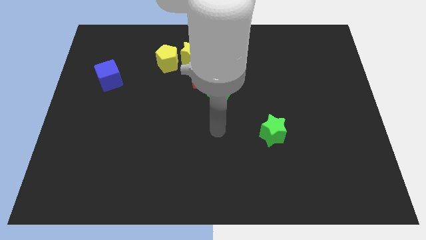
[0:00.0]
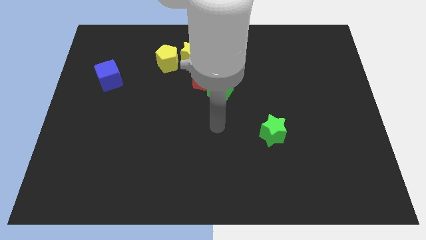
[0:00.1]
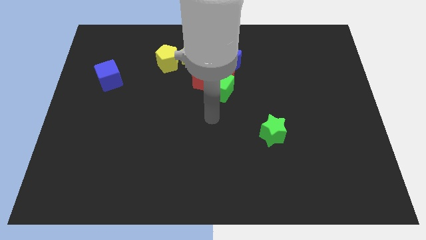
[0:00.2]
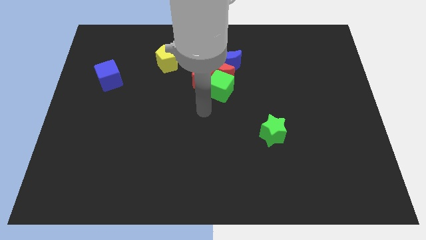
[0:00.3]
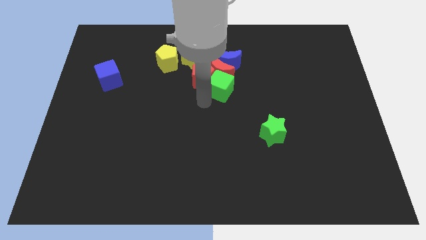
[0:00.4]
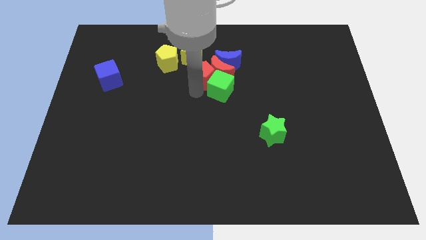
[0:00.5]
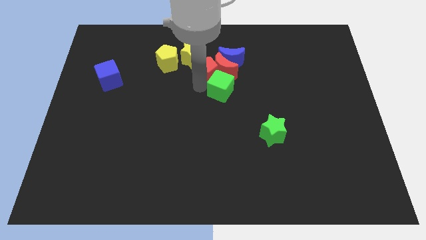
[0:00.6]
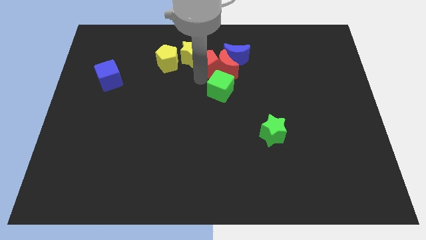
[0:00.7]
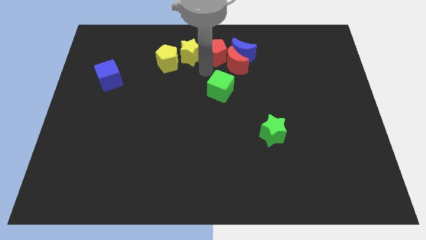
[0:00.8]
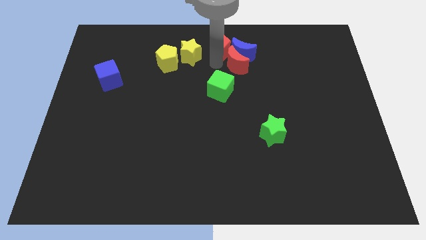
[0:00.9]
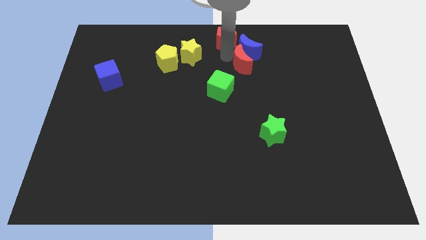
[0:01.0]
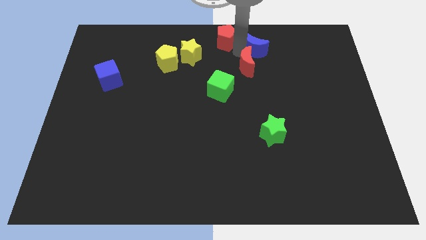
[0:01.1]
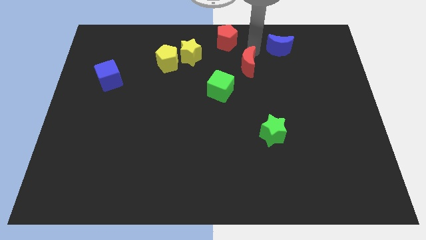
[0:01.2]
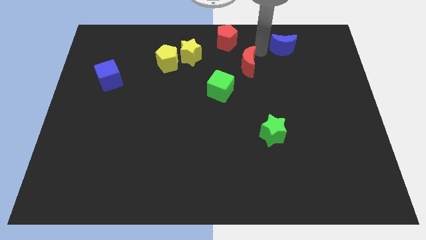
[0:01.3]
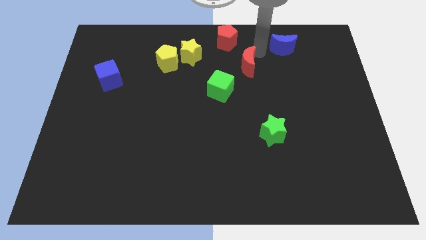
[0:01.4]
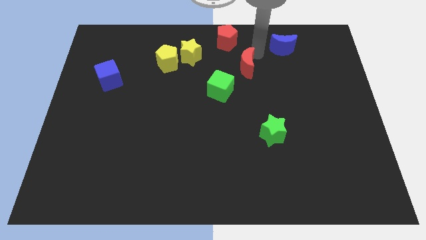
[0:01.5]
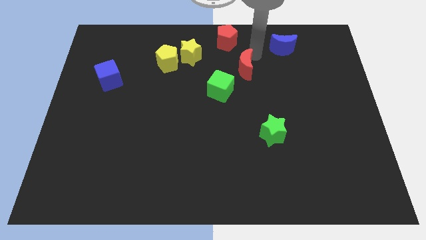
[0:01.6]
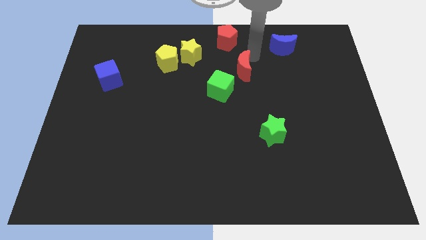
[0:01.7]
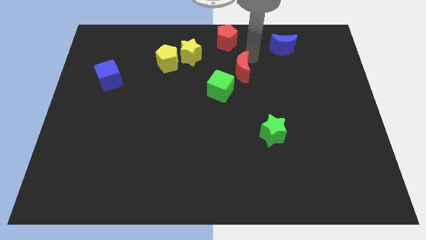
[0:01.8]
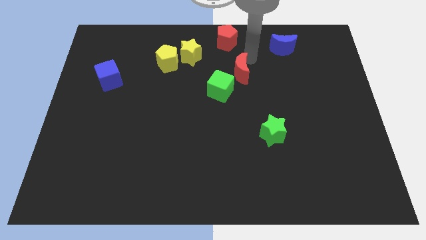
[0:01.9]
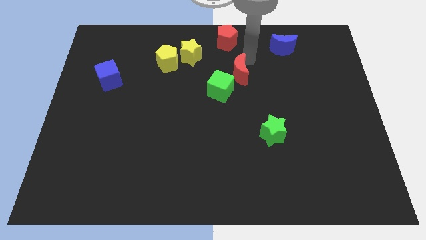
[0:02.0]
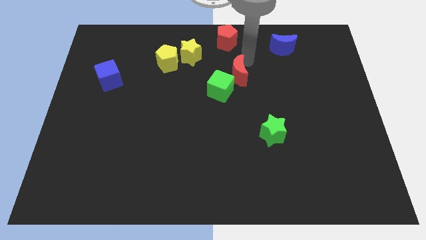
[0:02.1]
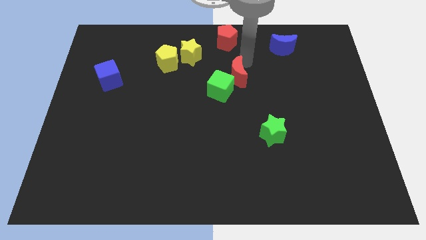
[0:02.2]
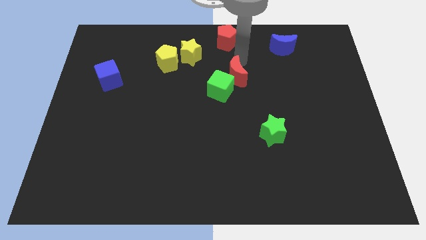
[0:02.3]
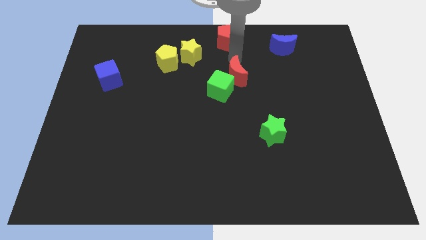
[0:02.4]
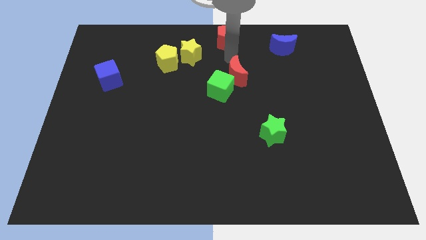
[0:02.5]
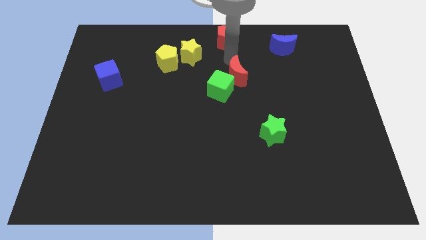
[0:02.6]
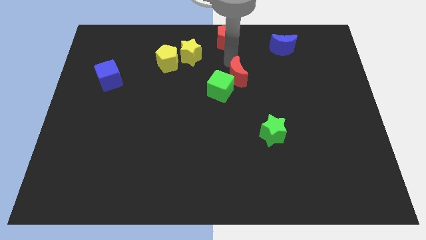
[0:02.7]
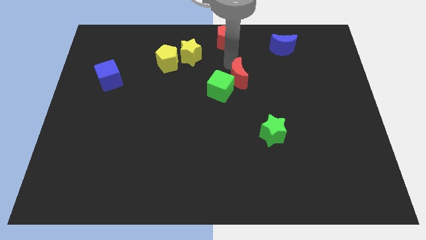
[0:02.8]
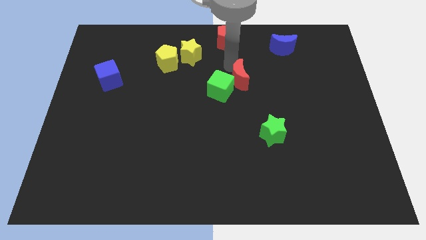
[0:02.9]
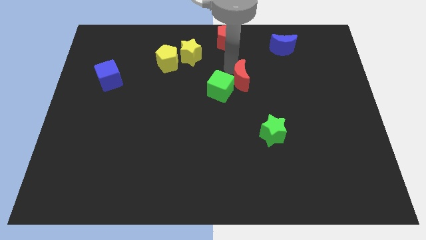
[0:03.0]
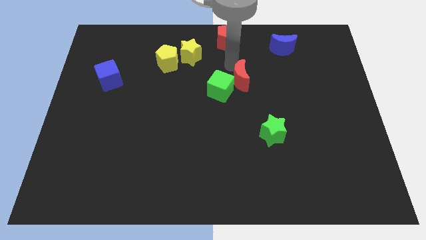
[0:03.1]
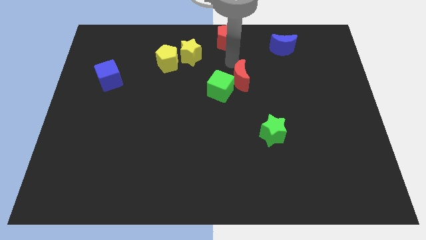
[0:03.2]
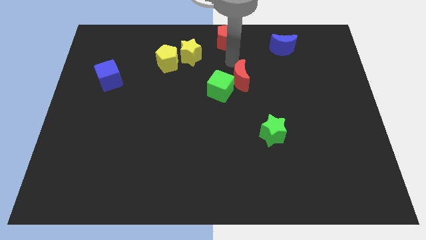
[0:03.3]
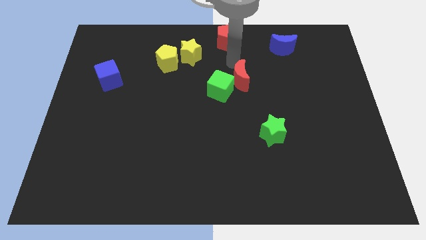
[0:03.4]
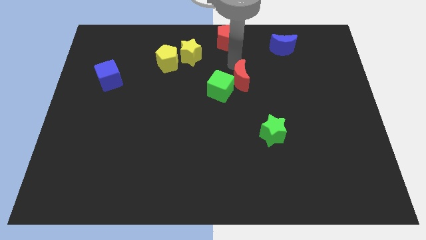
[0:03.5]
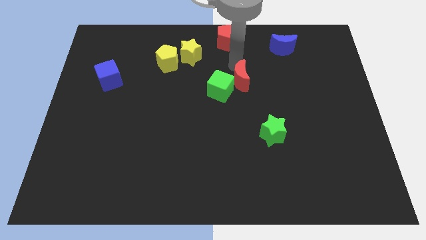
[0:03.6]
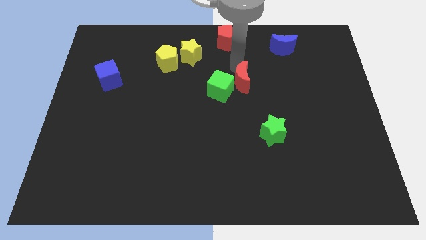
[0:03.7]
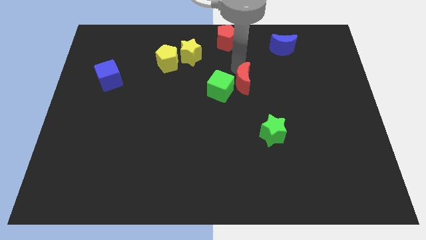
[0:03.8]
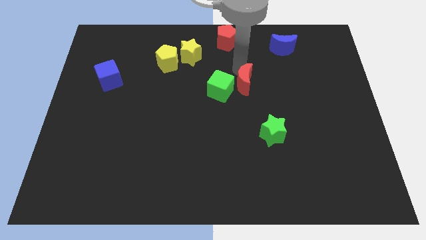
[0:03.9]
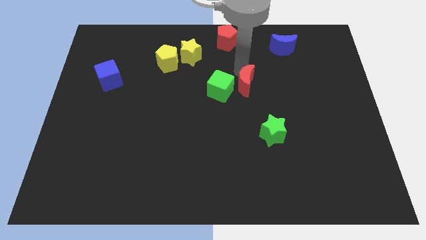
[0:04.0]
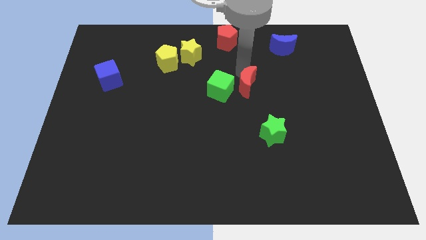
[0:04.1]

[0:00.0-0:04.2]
move the red moon away from the group

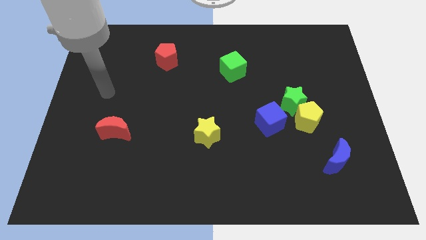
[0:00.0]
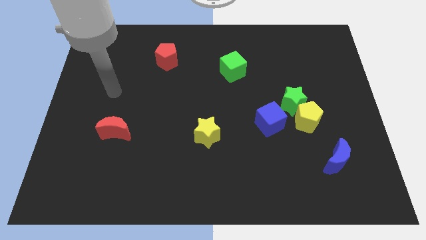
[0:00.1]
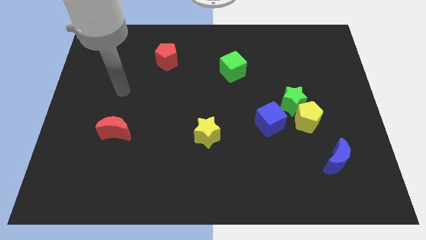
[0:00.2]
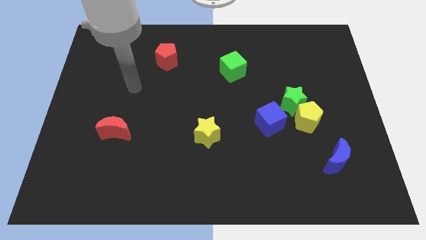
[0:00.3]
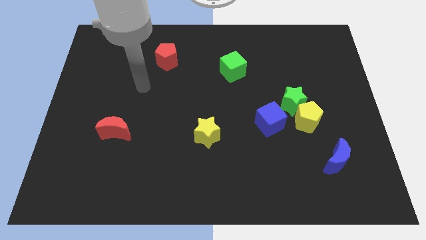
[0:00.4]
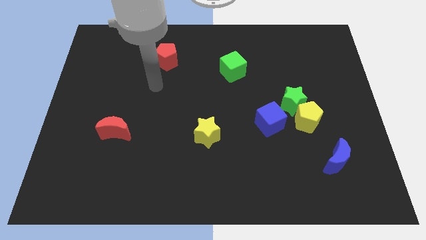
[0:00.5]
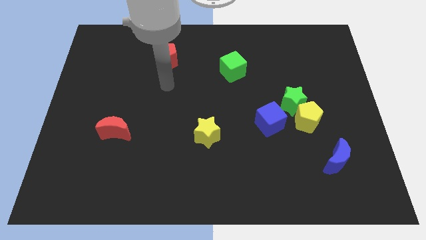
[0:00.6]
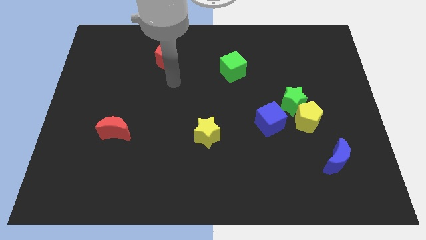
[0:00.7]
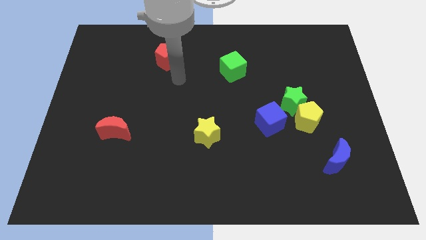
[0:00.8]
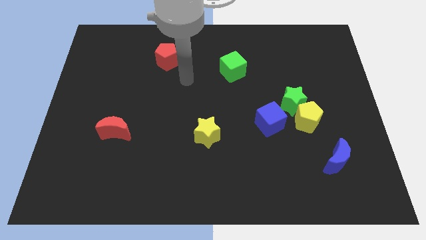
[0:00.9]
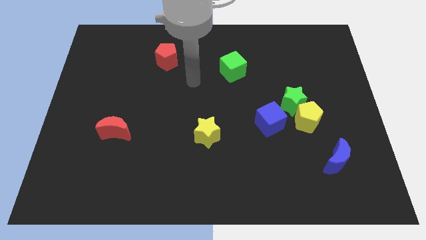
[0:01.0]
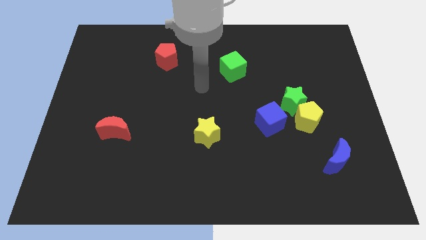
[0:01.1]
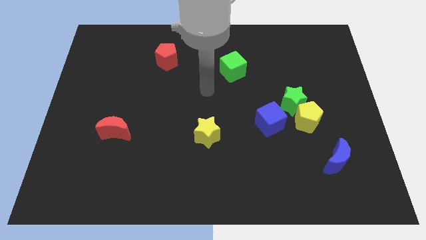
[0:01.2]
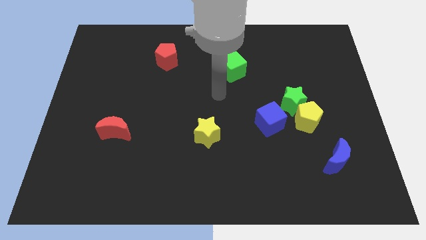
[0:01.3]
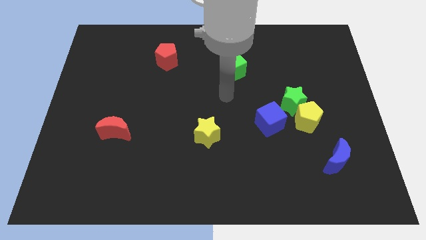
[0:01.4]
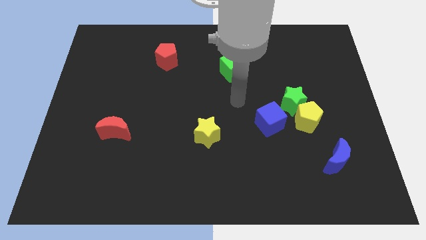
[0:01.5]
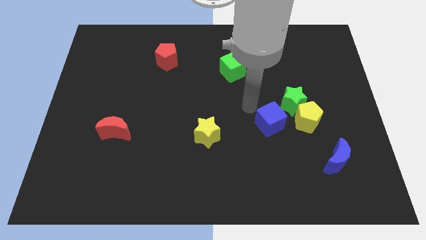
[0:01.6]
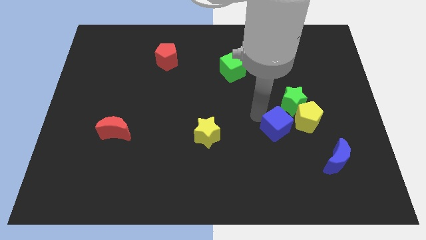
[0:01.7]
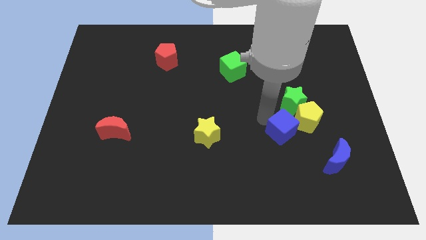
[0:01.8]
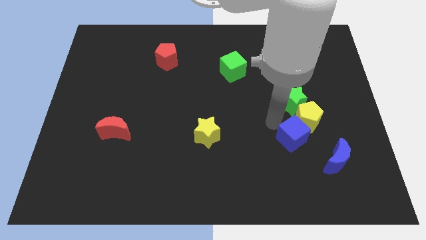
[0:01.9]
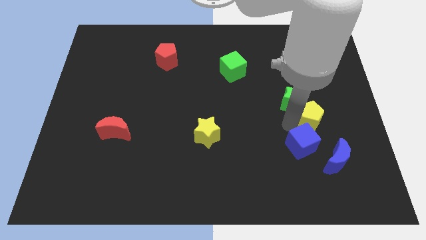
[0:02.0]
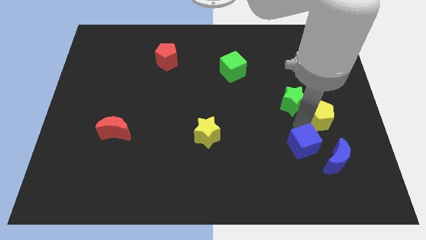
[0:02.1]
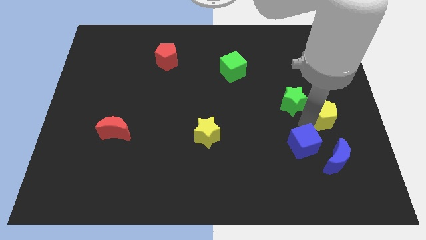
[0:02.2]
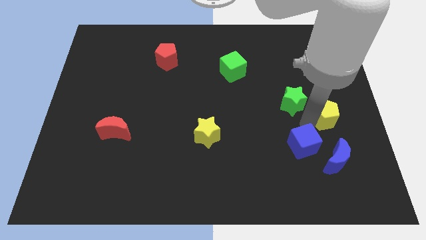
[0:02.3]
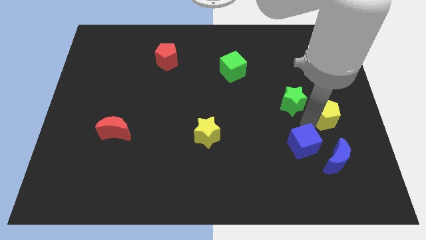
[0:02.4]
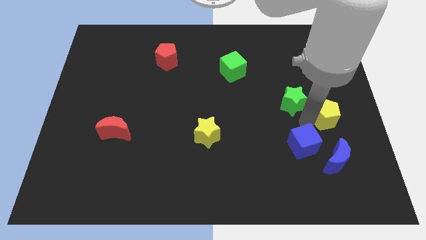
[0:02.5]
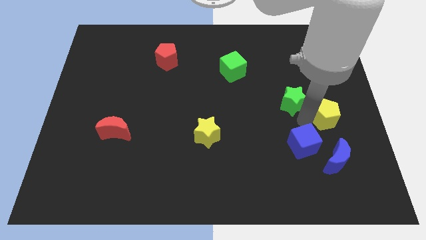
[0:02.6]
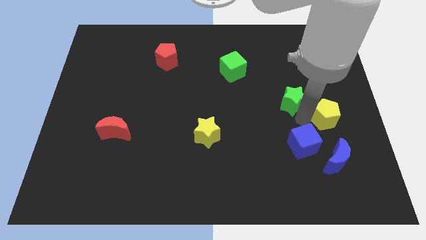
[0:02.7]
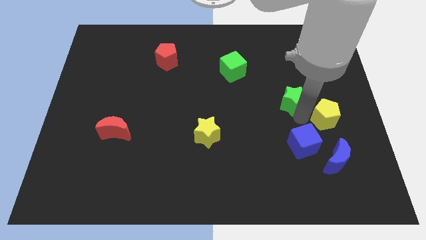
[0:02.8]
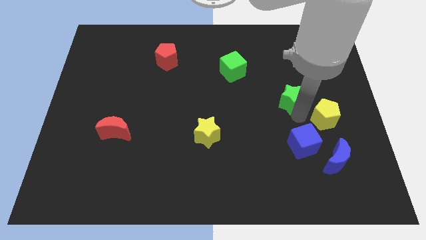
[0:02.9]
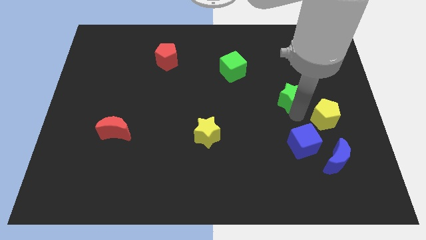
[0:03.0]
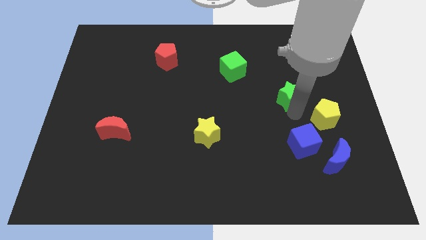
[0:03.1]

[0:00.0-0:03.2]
pull the green star apart from the yellow pentagon and blue cube

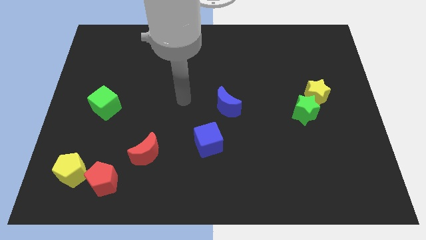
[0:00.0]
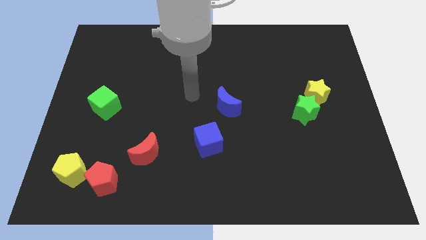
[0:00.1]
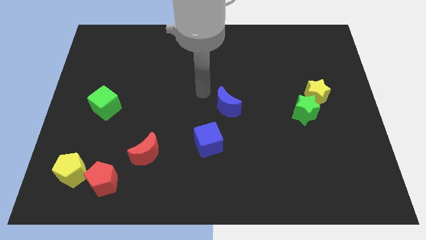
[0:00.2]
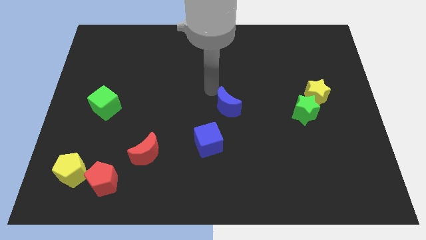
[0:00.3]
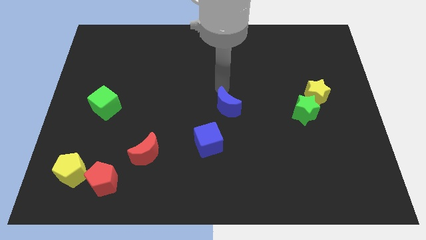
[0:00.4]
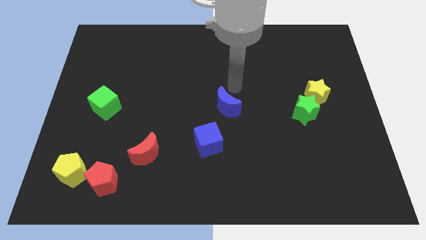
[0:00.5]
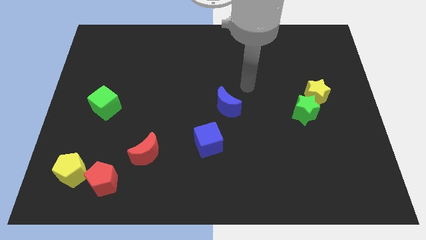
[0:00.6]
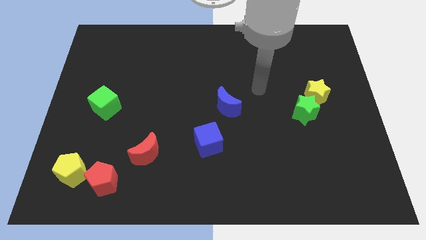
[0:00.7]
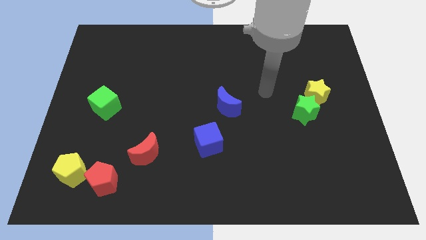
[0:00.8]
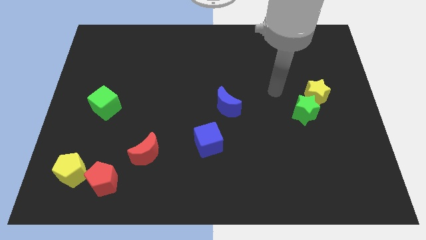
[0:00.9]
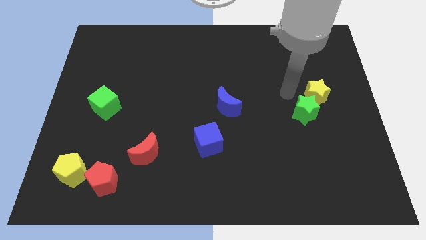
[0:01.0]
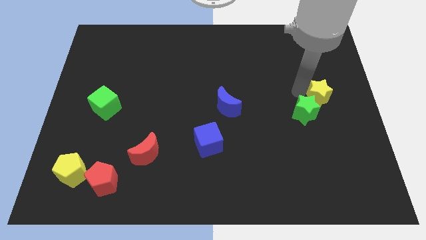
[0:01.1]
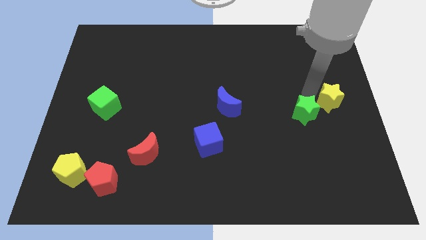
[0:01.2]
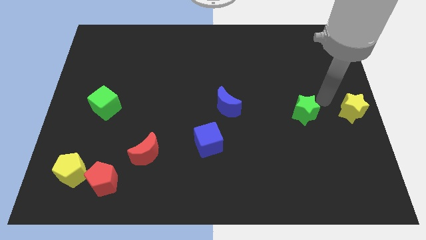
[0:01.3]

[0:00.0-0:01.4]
separate the green star from the yellow star

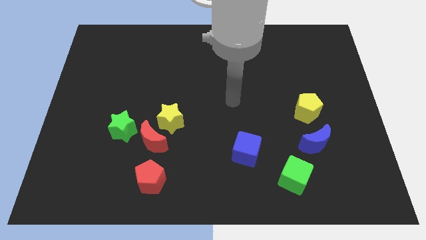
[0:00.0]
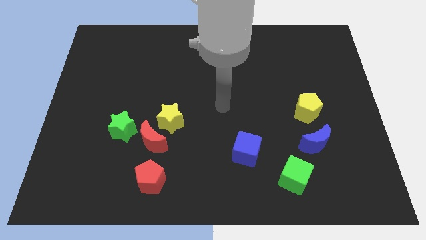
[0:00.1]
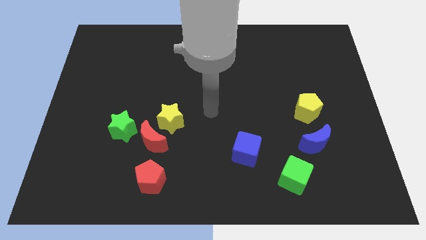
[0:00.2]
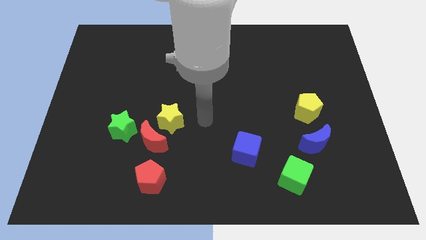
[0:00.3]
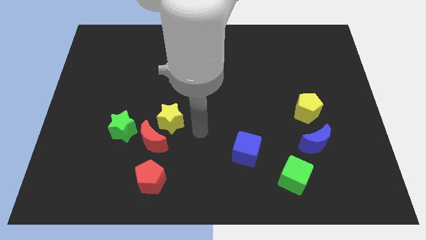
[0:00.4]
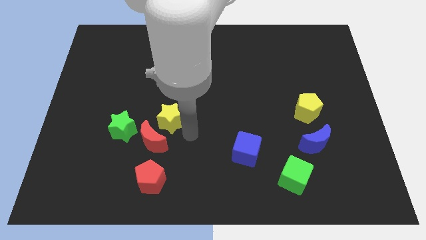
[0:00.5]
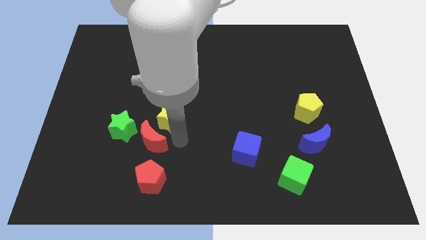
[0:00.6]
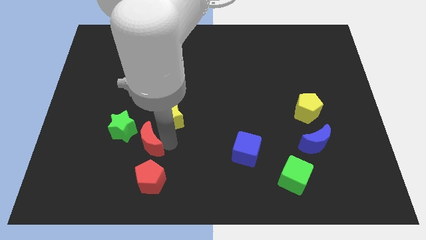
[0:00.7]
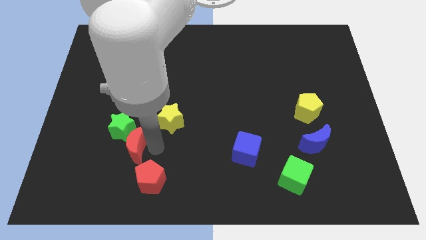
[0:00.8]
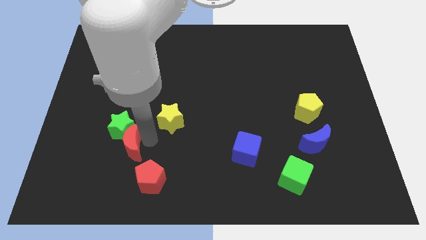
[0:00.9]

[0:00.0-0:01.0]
pull the yellow star apart from the red moon
